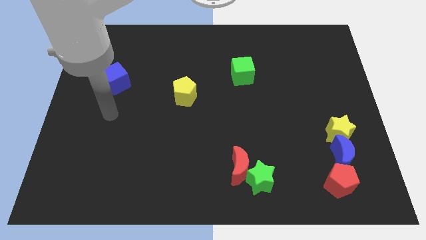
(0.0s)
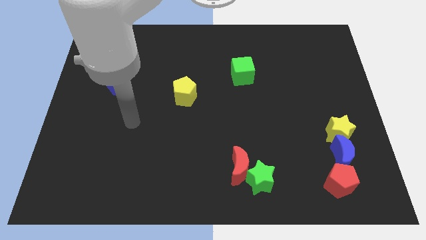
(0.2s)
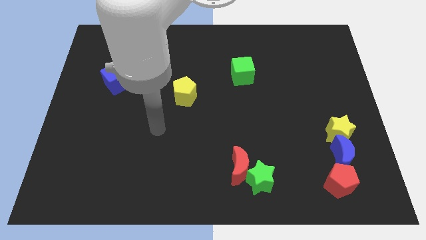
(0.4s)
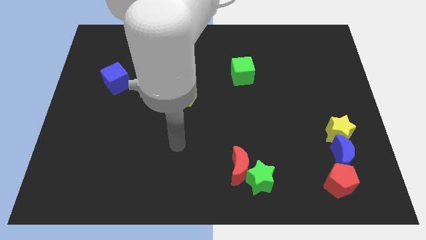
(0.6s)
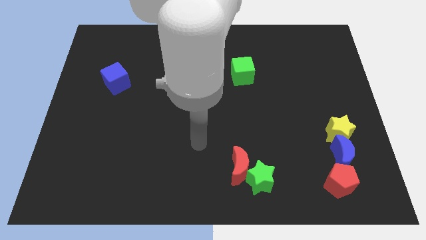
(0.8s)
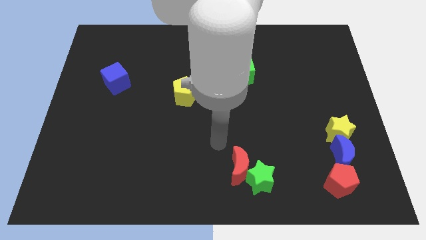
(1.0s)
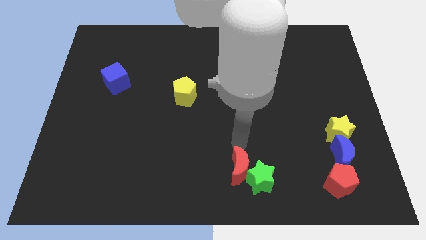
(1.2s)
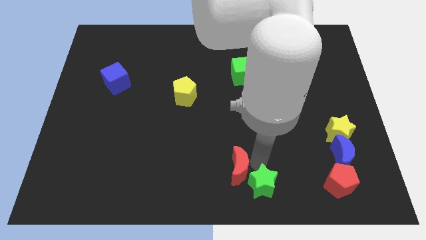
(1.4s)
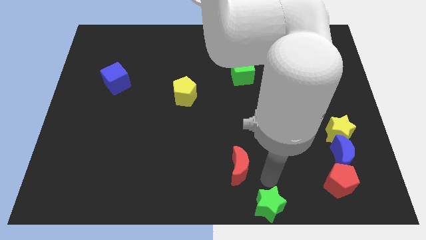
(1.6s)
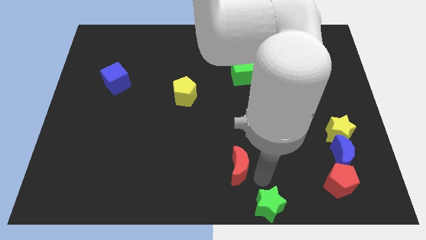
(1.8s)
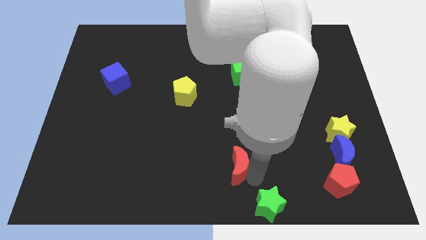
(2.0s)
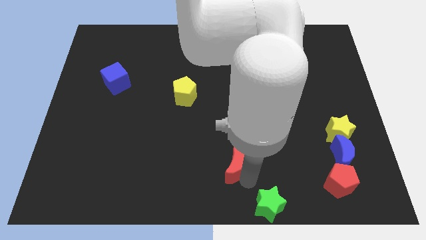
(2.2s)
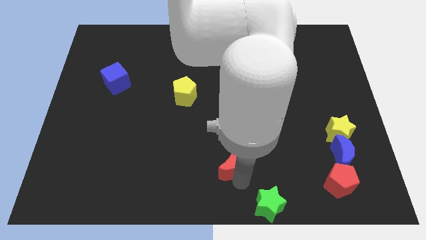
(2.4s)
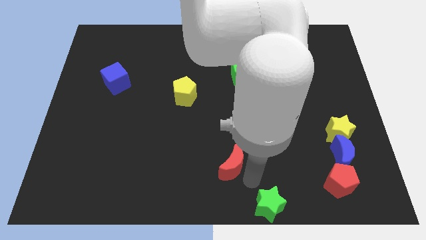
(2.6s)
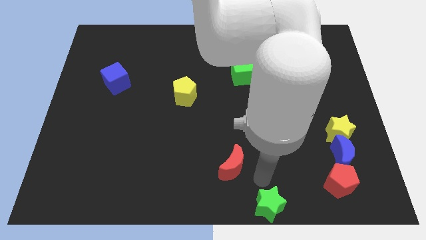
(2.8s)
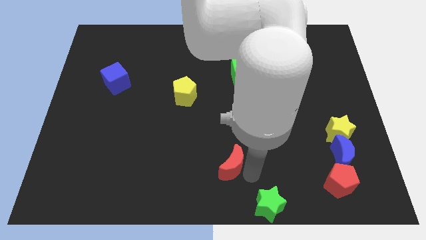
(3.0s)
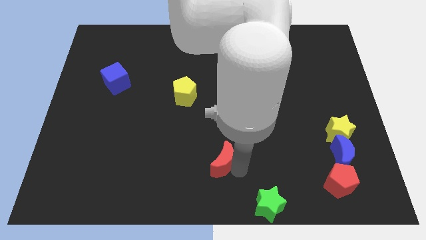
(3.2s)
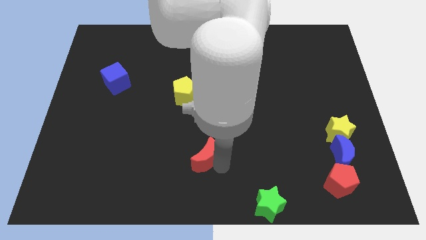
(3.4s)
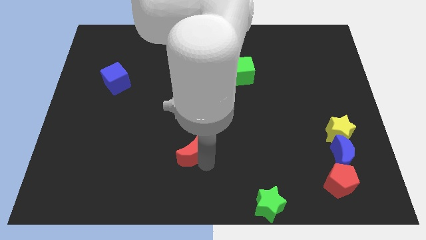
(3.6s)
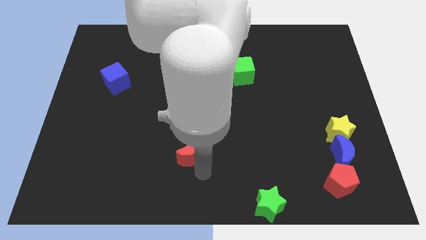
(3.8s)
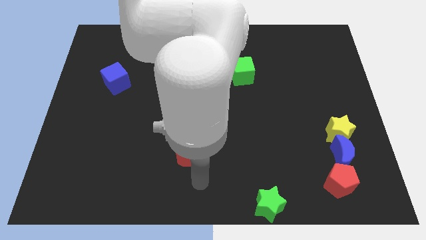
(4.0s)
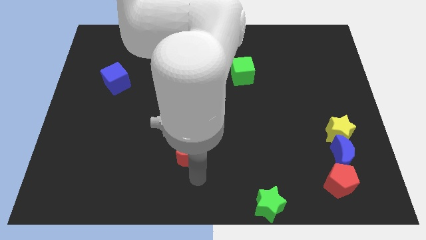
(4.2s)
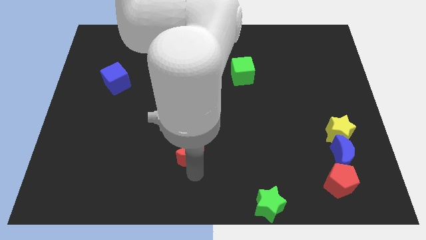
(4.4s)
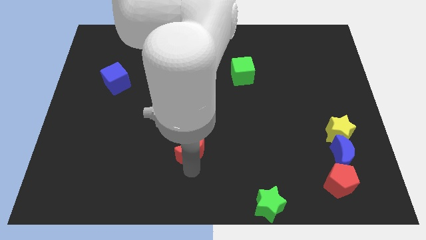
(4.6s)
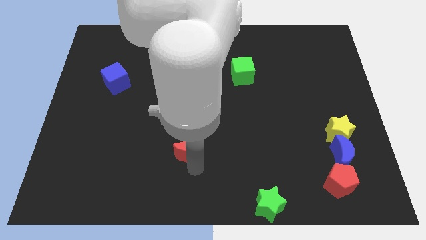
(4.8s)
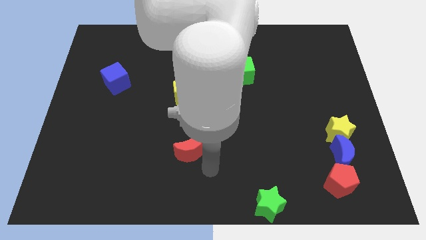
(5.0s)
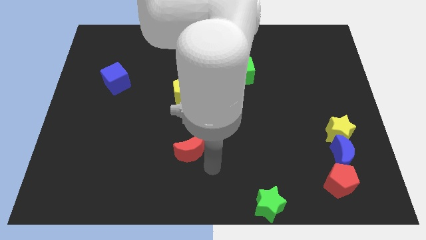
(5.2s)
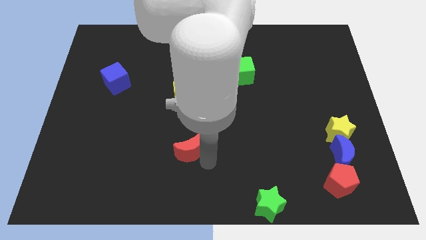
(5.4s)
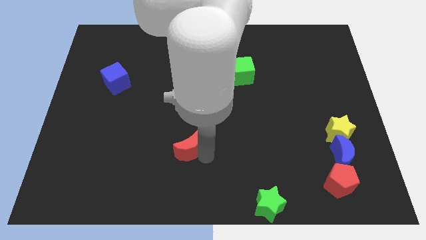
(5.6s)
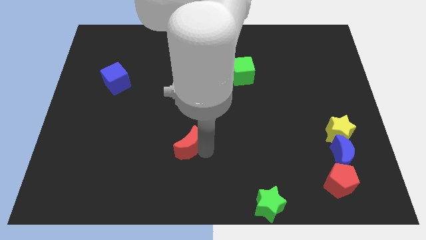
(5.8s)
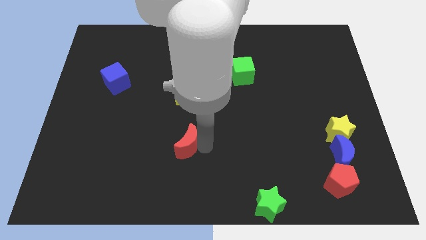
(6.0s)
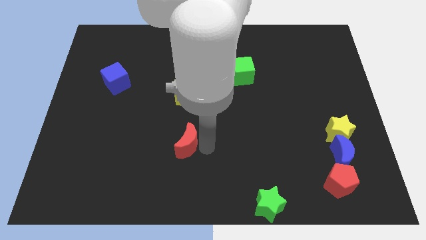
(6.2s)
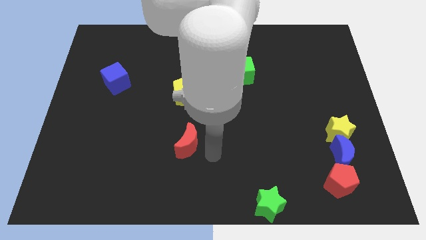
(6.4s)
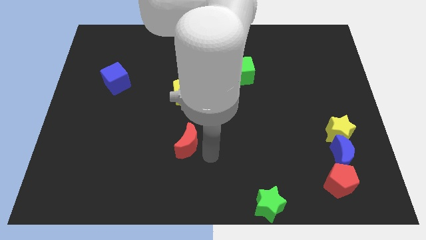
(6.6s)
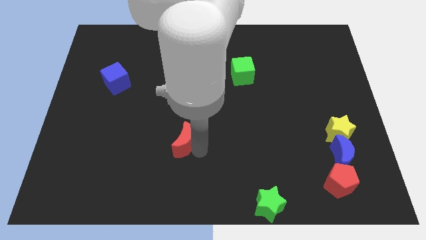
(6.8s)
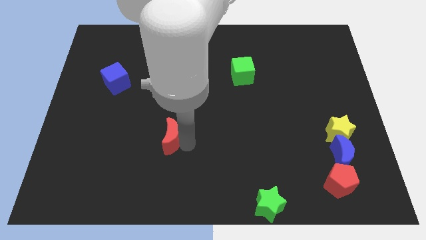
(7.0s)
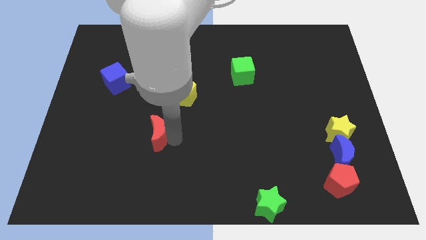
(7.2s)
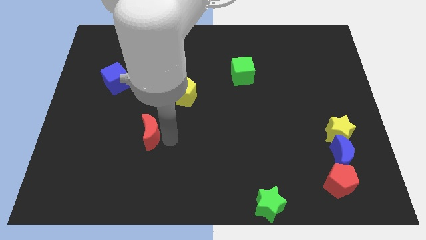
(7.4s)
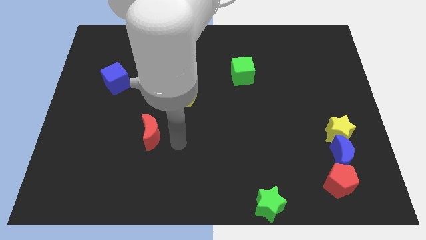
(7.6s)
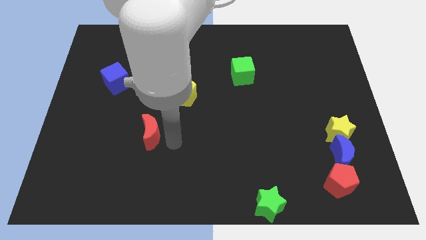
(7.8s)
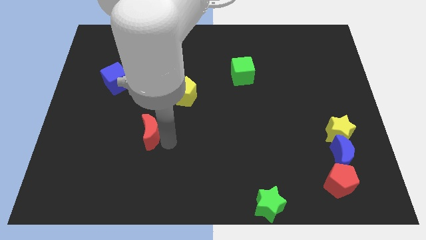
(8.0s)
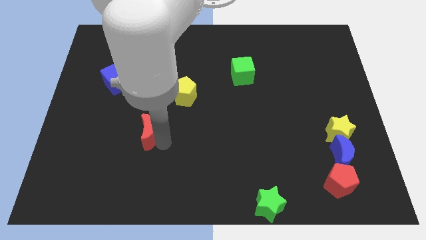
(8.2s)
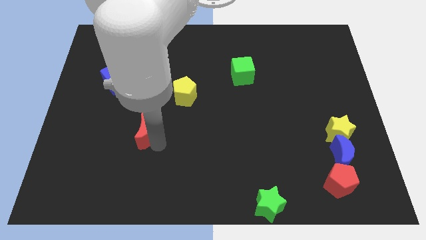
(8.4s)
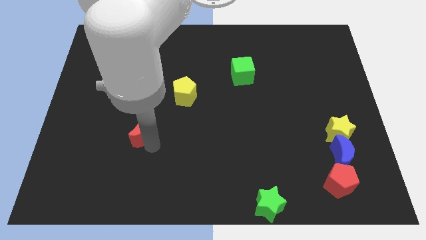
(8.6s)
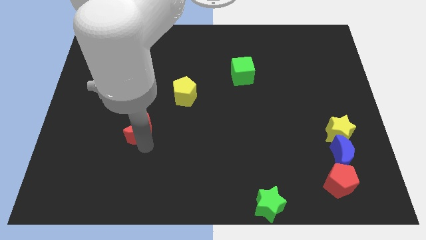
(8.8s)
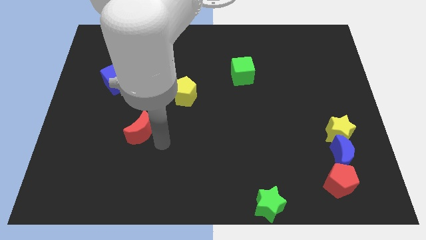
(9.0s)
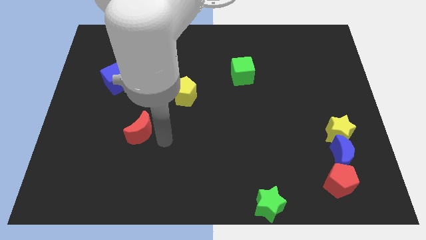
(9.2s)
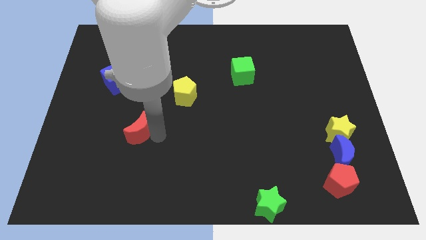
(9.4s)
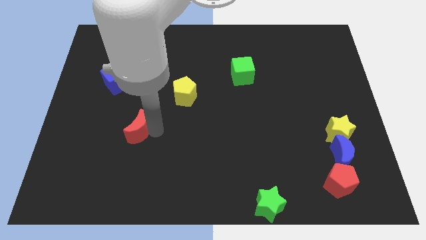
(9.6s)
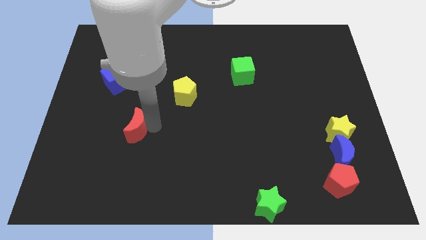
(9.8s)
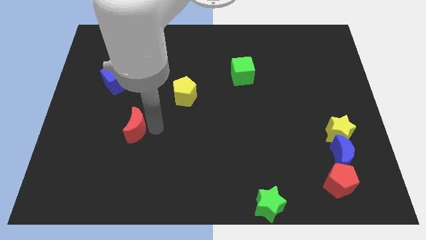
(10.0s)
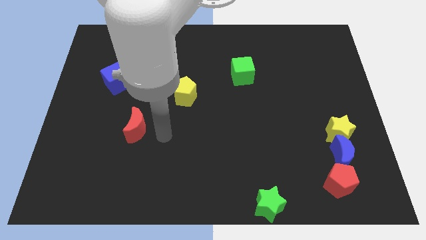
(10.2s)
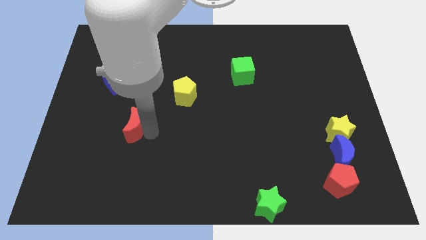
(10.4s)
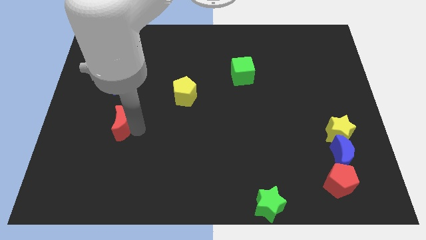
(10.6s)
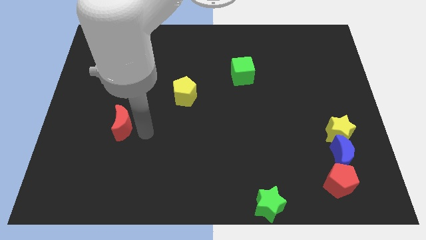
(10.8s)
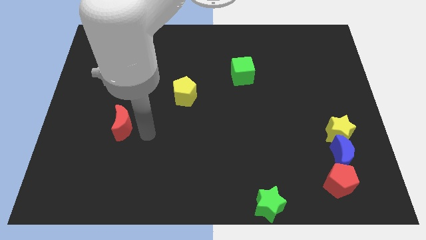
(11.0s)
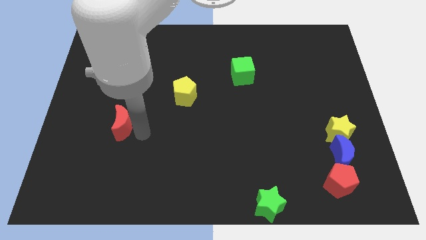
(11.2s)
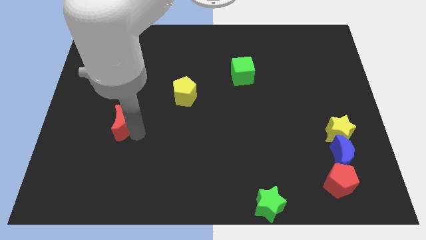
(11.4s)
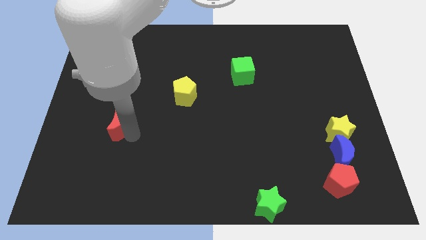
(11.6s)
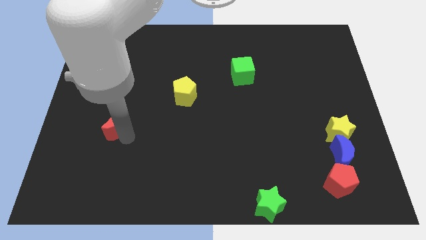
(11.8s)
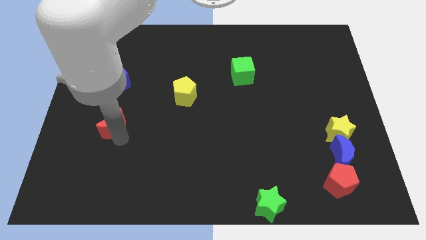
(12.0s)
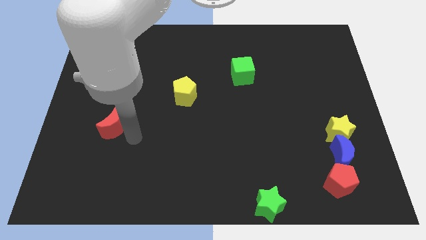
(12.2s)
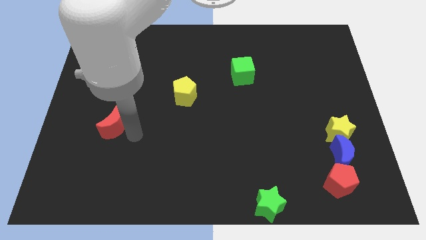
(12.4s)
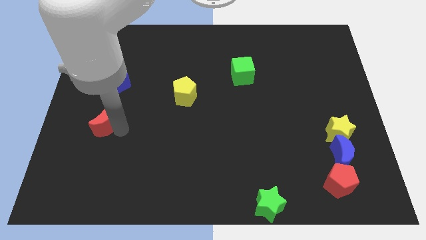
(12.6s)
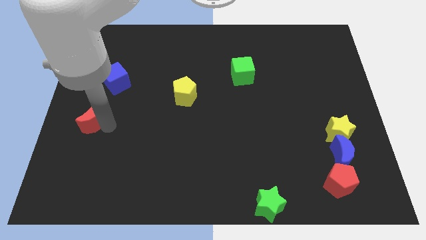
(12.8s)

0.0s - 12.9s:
move the red moon to the left side of the board
